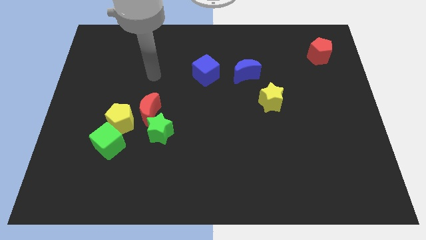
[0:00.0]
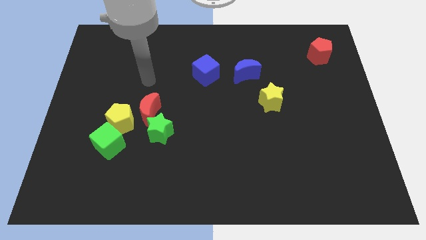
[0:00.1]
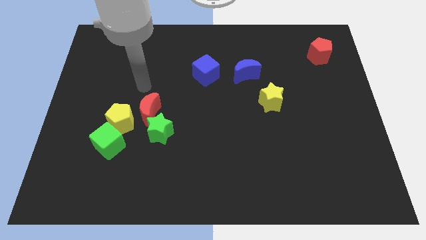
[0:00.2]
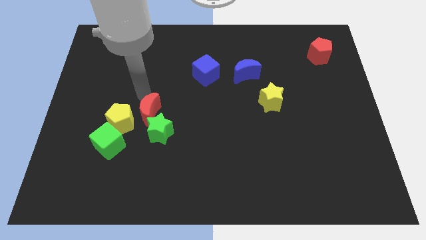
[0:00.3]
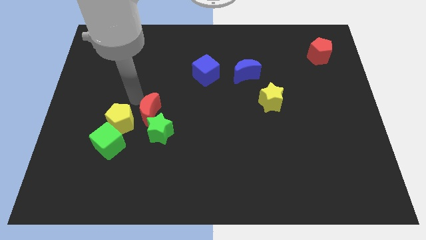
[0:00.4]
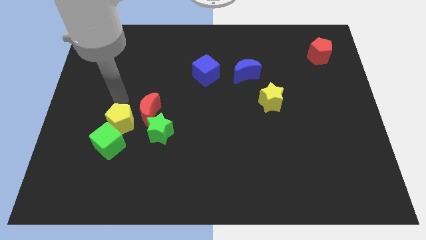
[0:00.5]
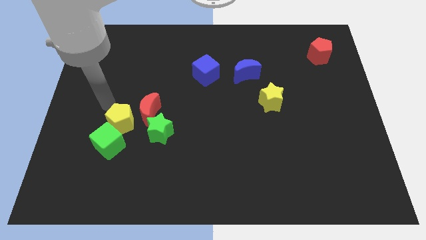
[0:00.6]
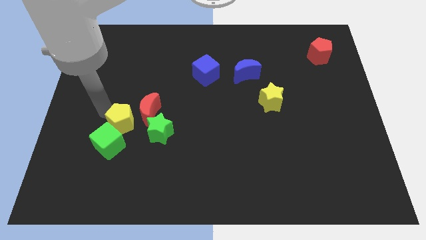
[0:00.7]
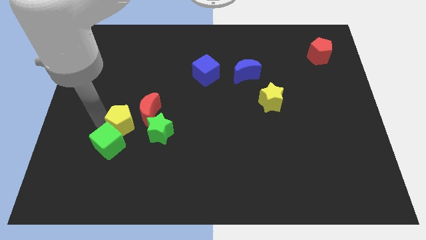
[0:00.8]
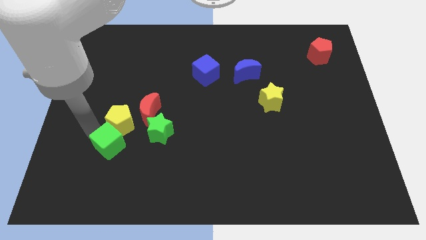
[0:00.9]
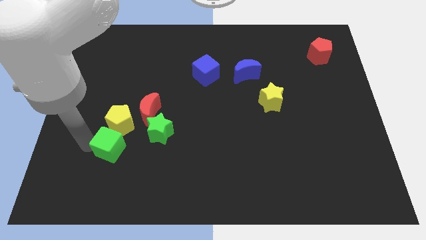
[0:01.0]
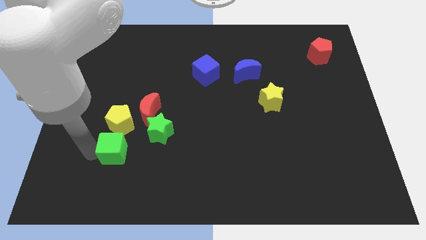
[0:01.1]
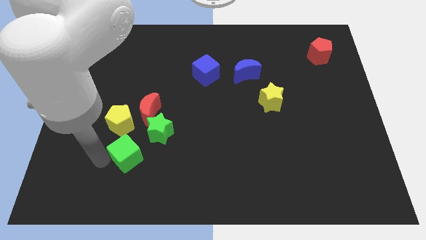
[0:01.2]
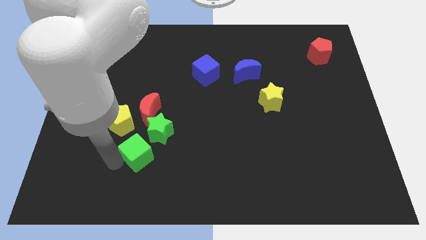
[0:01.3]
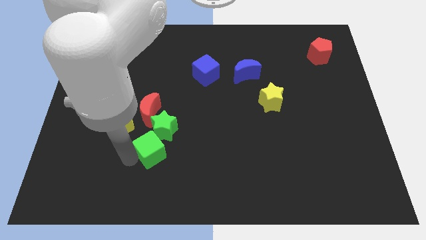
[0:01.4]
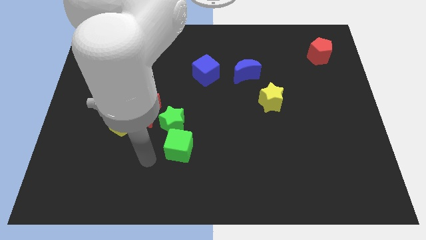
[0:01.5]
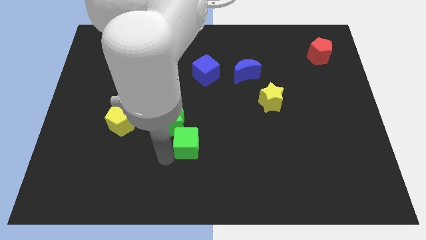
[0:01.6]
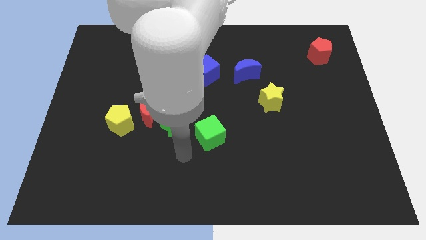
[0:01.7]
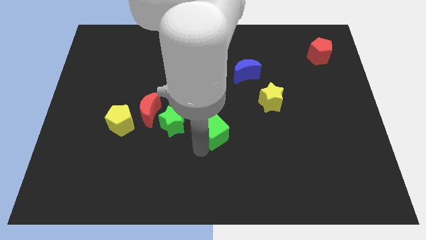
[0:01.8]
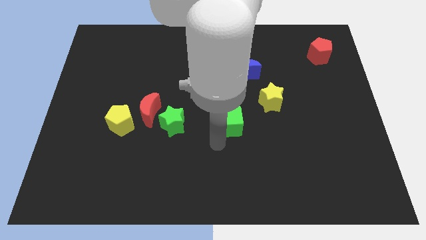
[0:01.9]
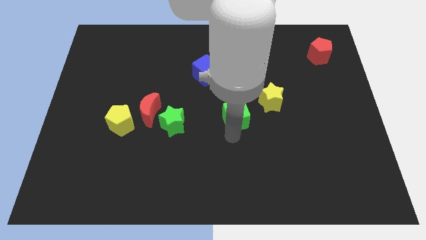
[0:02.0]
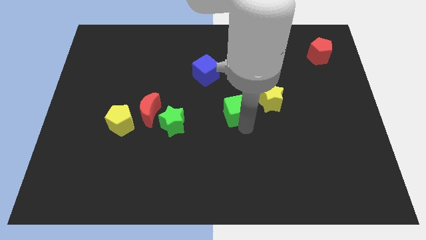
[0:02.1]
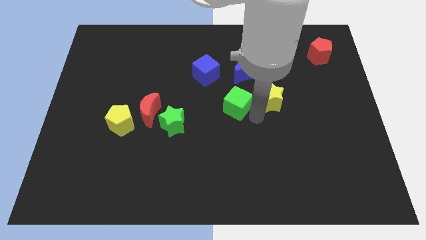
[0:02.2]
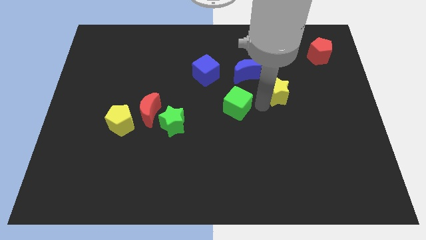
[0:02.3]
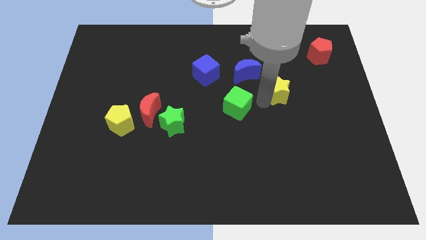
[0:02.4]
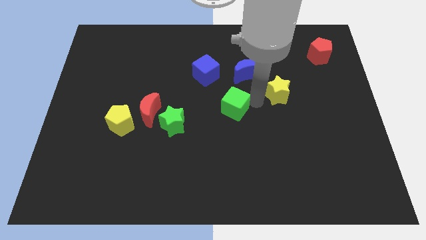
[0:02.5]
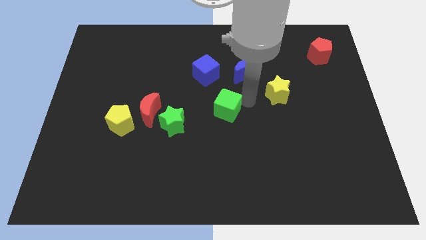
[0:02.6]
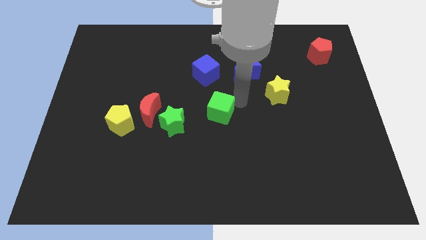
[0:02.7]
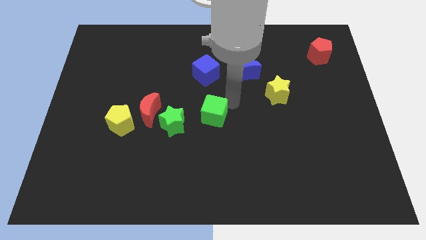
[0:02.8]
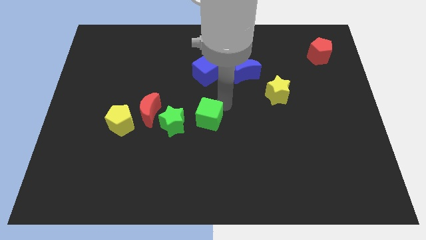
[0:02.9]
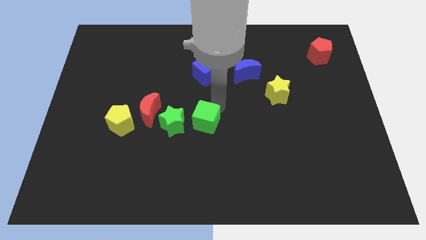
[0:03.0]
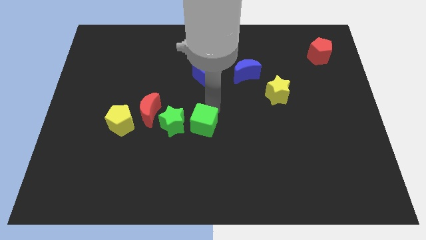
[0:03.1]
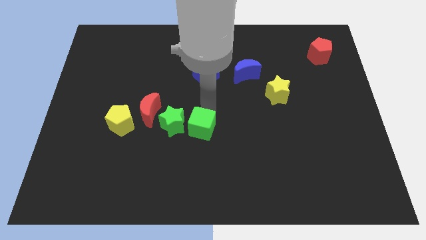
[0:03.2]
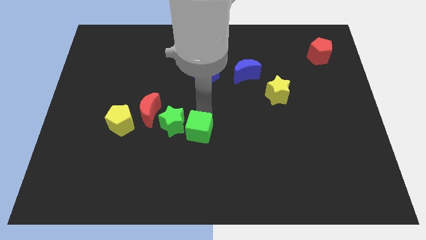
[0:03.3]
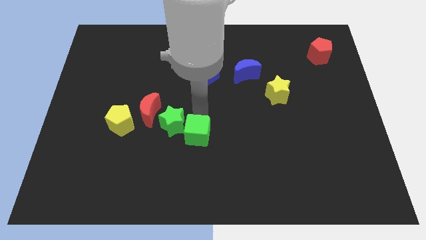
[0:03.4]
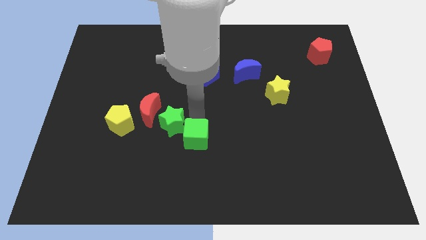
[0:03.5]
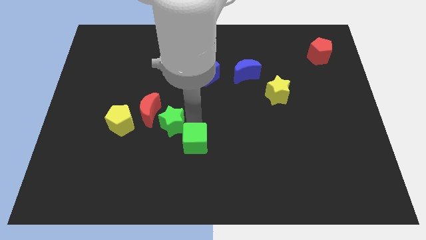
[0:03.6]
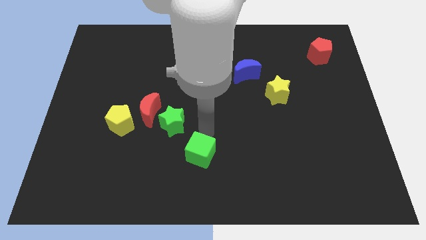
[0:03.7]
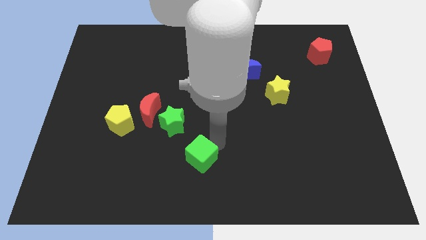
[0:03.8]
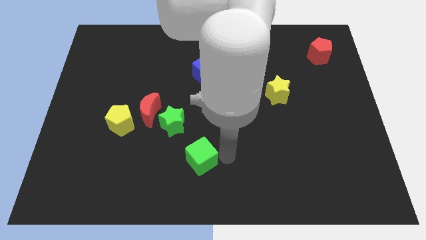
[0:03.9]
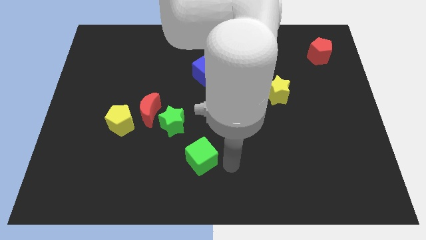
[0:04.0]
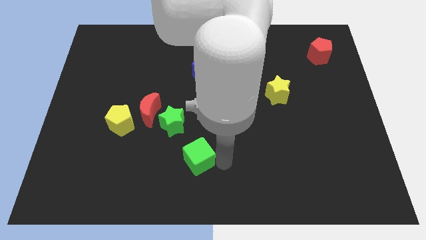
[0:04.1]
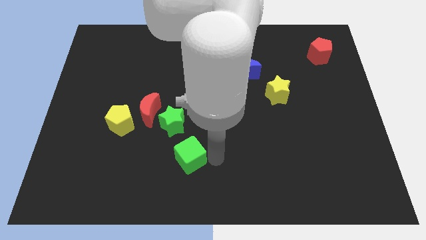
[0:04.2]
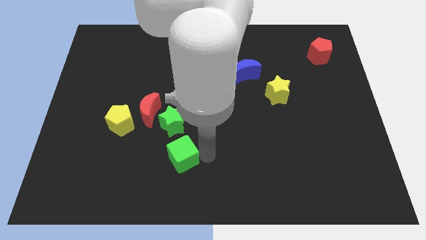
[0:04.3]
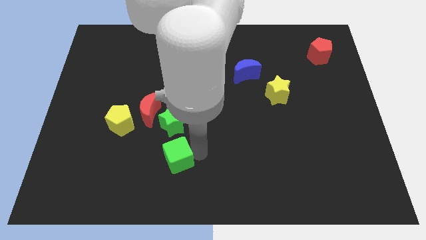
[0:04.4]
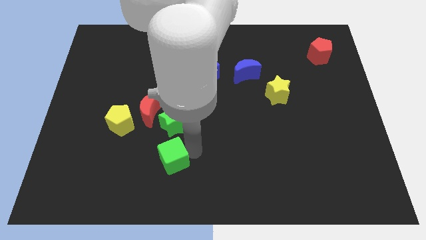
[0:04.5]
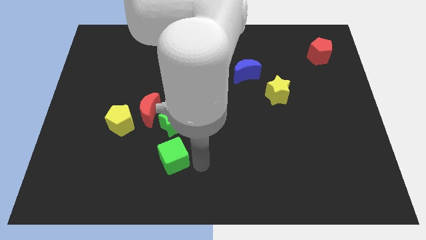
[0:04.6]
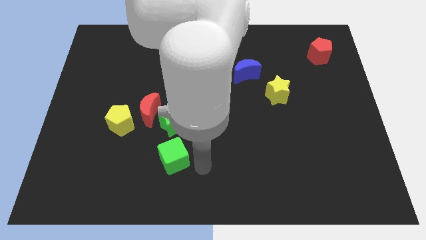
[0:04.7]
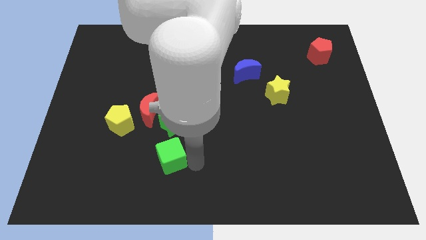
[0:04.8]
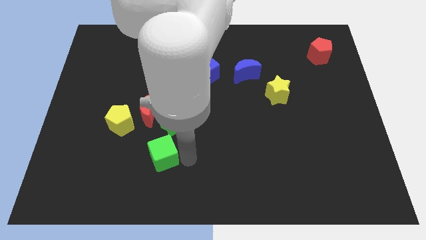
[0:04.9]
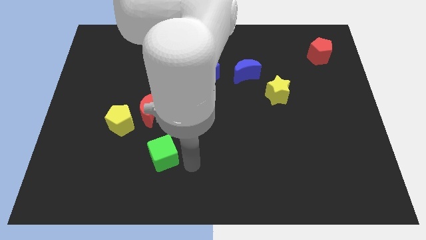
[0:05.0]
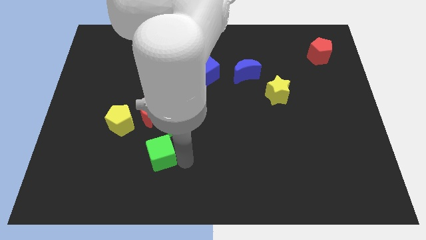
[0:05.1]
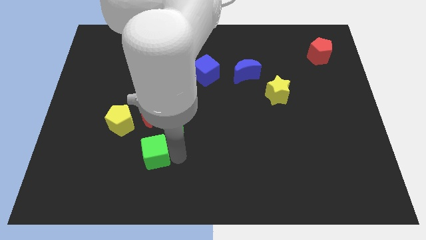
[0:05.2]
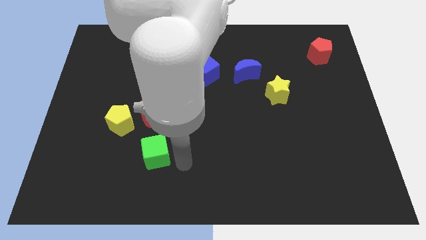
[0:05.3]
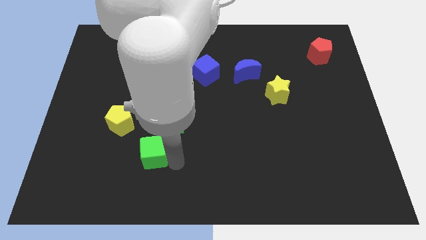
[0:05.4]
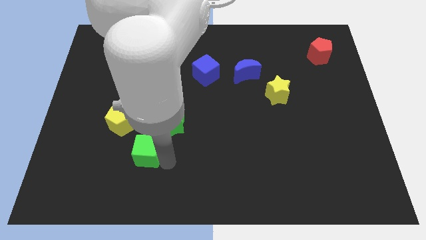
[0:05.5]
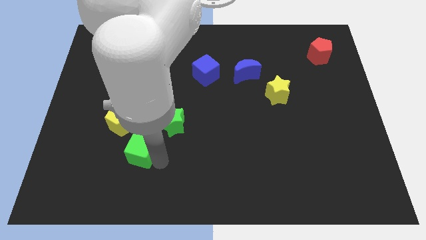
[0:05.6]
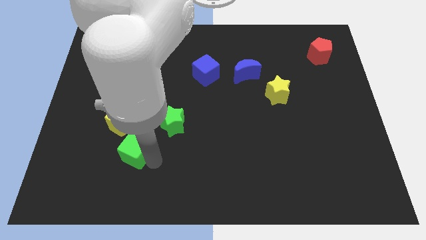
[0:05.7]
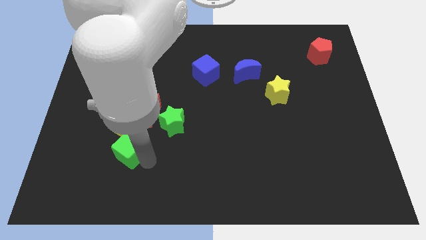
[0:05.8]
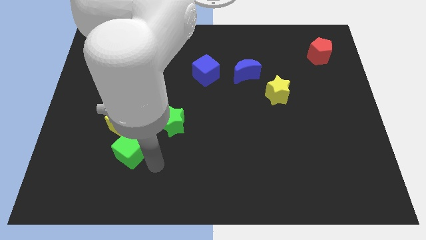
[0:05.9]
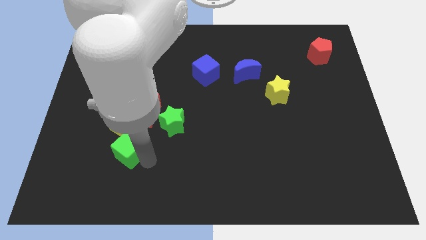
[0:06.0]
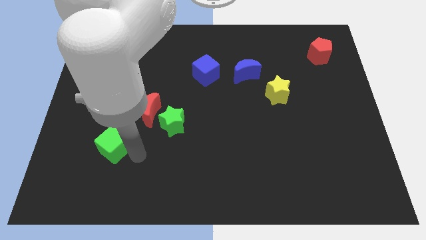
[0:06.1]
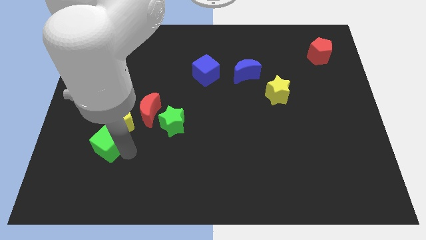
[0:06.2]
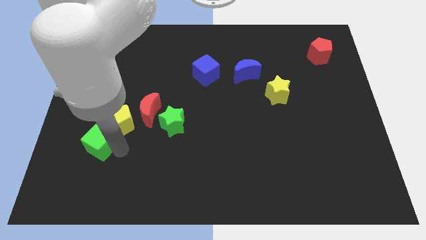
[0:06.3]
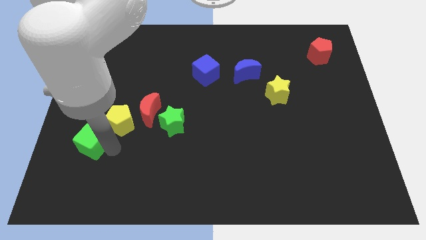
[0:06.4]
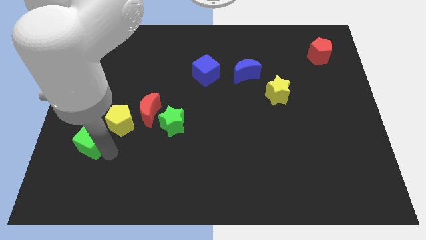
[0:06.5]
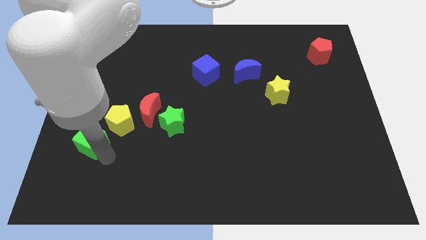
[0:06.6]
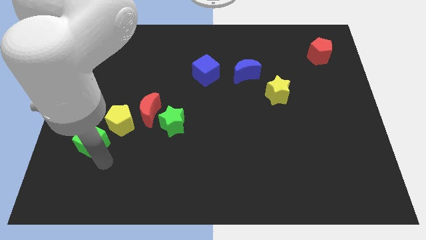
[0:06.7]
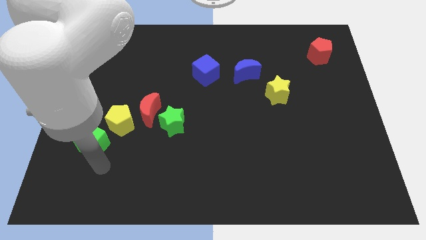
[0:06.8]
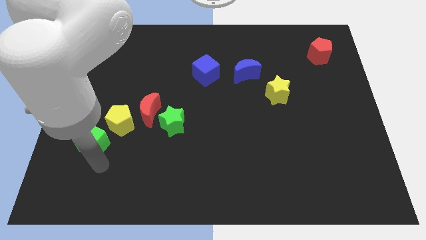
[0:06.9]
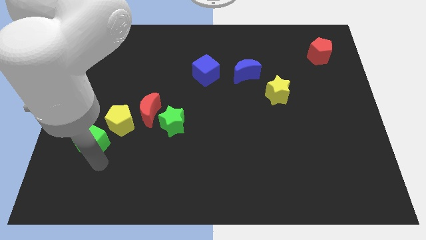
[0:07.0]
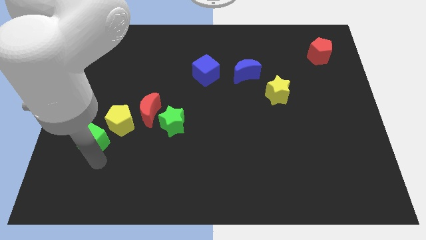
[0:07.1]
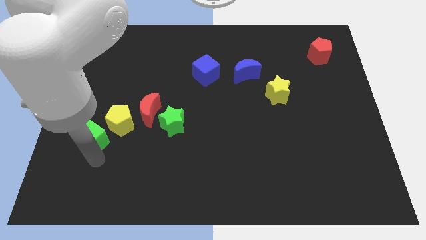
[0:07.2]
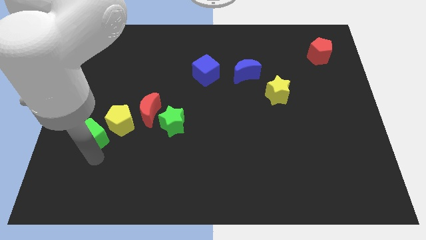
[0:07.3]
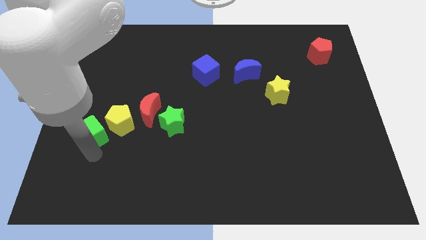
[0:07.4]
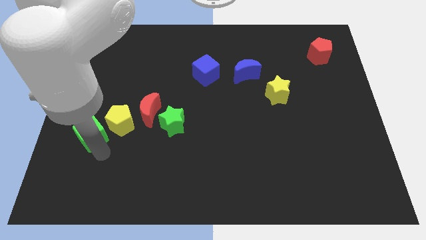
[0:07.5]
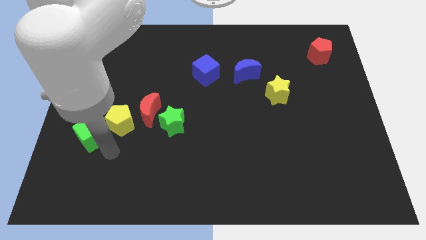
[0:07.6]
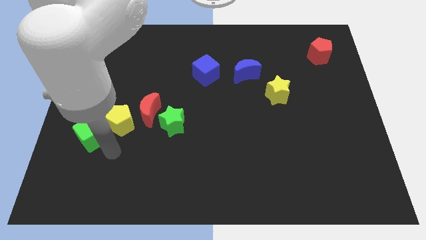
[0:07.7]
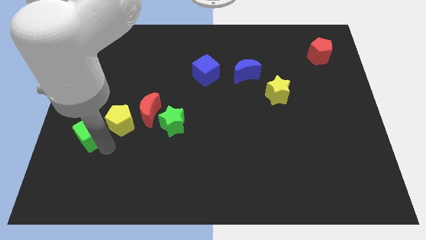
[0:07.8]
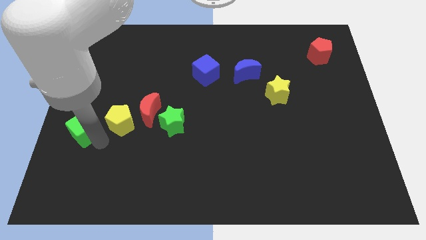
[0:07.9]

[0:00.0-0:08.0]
push the green cube to the center left
